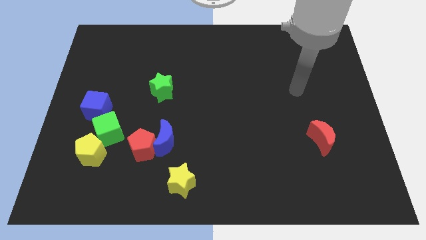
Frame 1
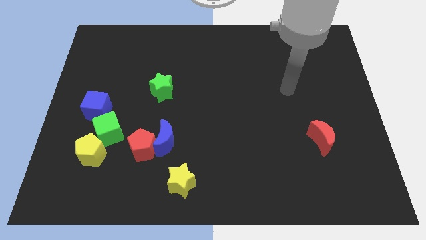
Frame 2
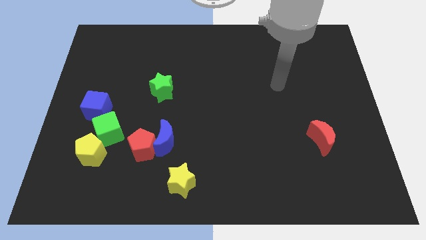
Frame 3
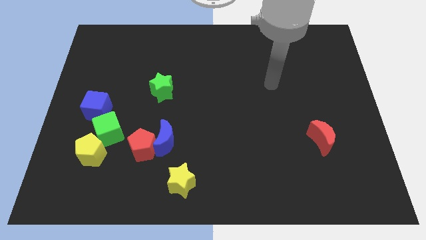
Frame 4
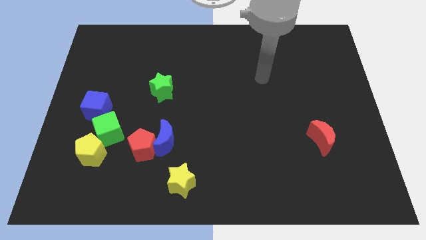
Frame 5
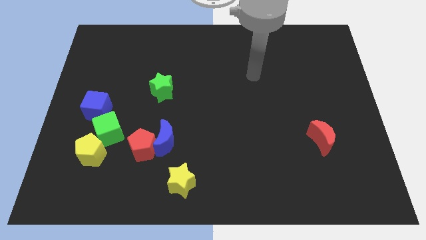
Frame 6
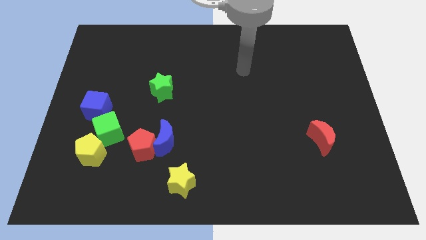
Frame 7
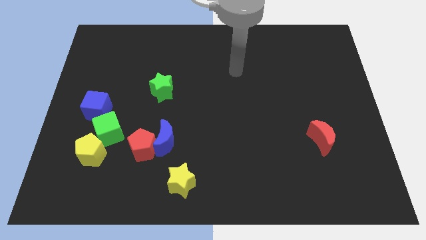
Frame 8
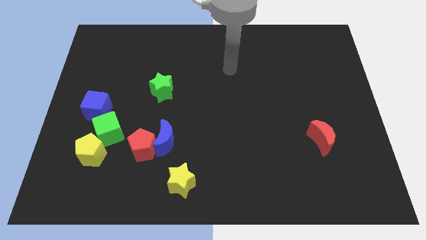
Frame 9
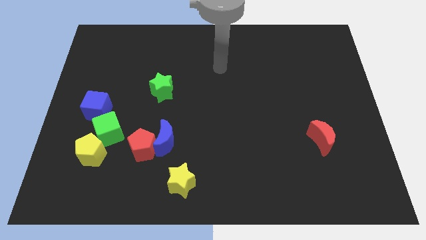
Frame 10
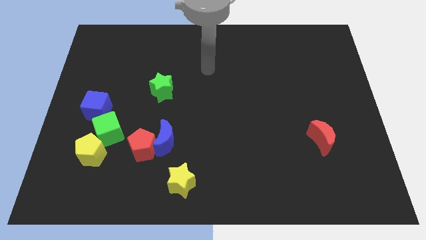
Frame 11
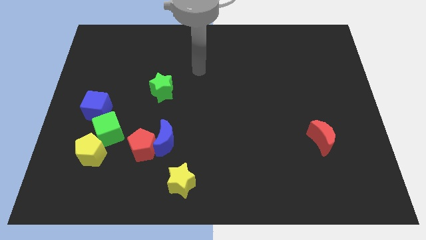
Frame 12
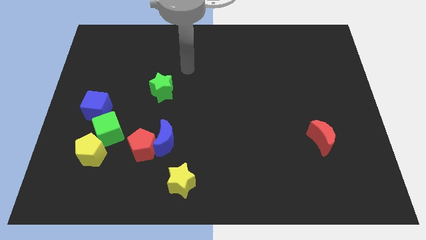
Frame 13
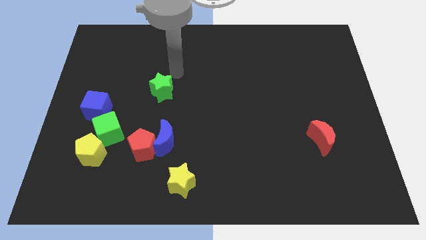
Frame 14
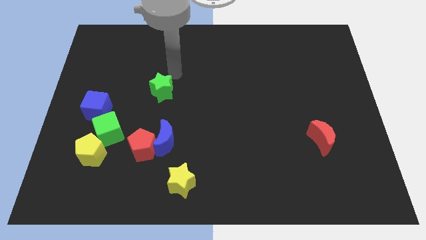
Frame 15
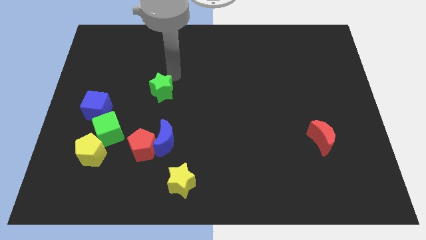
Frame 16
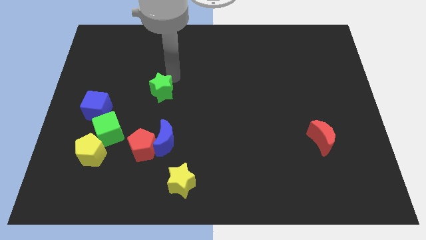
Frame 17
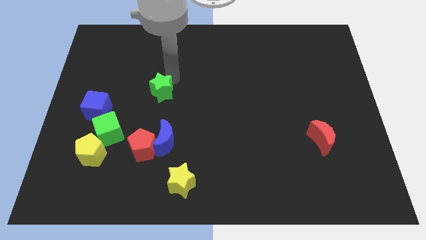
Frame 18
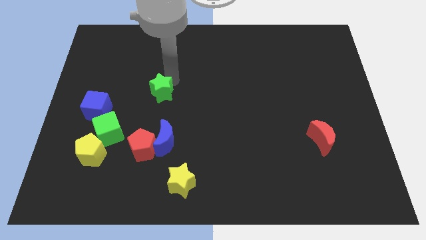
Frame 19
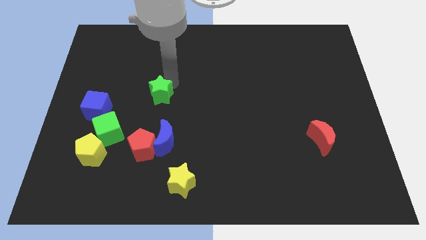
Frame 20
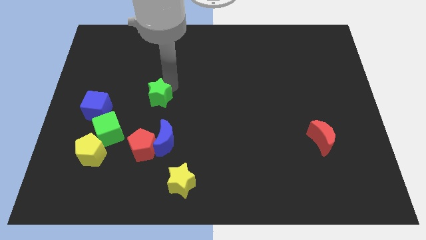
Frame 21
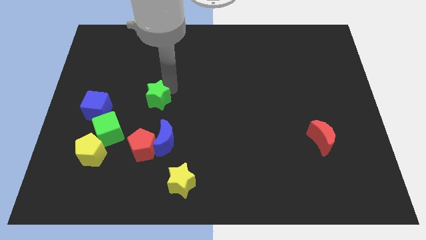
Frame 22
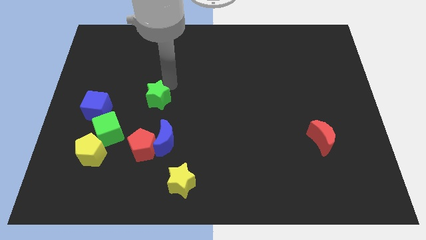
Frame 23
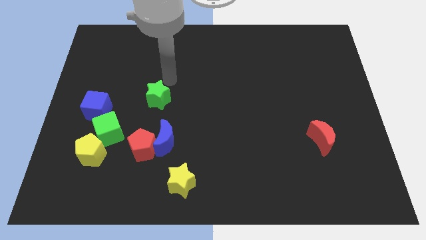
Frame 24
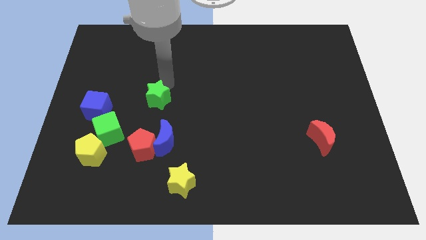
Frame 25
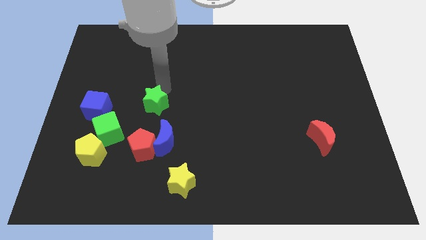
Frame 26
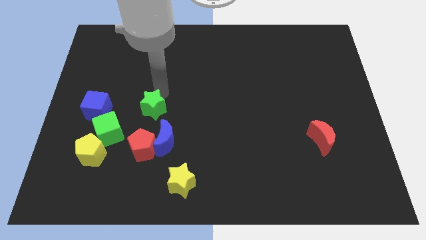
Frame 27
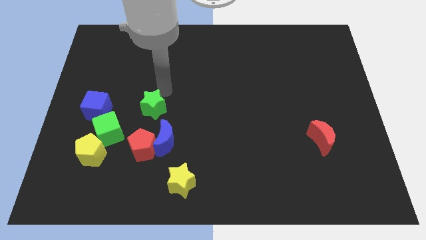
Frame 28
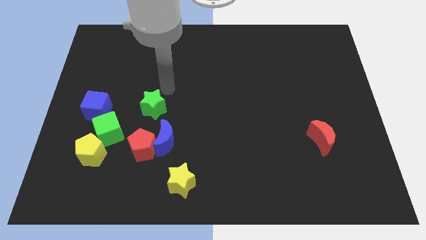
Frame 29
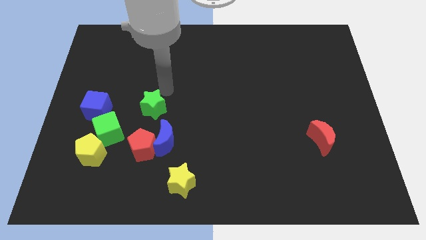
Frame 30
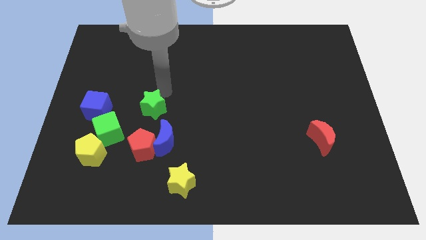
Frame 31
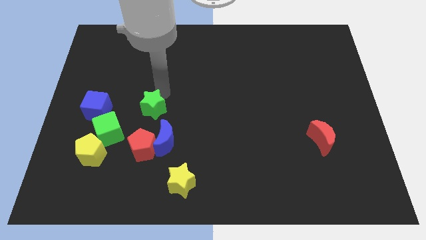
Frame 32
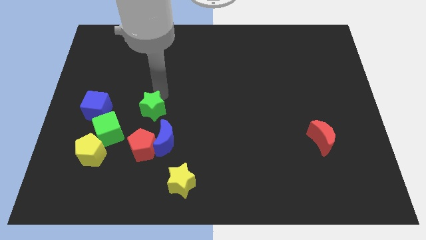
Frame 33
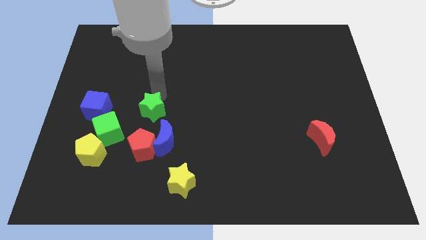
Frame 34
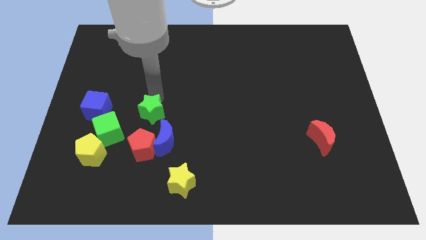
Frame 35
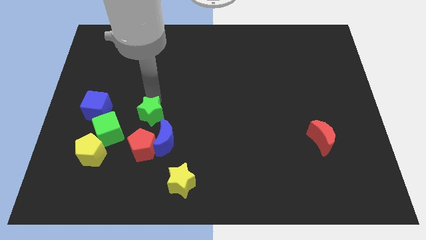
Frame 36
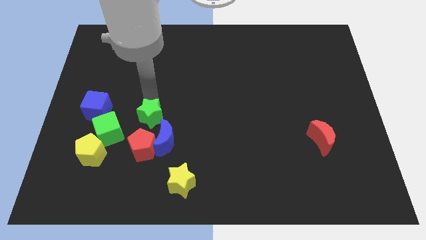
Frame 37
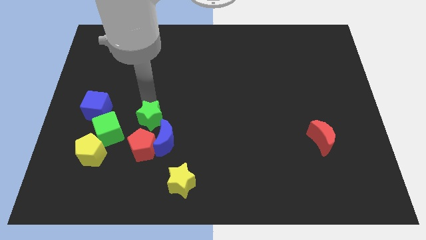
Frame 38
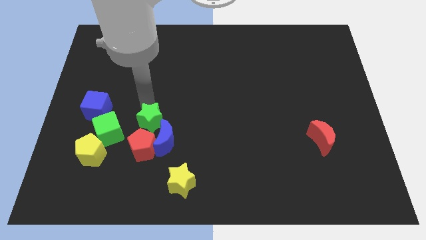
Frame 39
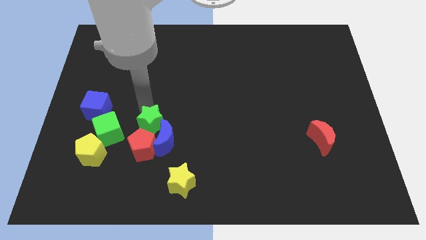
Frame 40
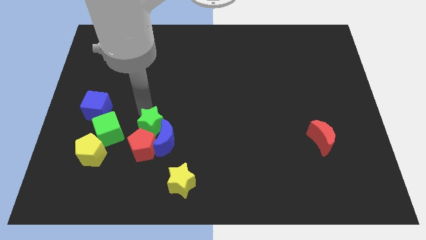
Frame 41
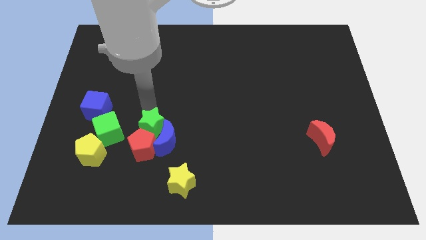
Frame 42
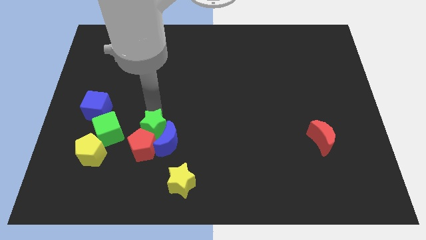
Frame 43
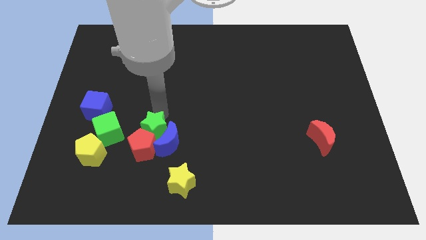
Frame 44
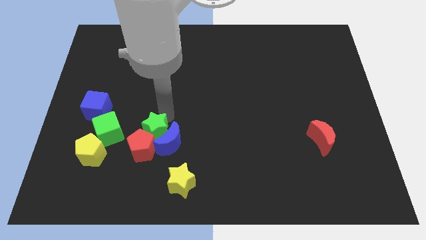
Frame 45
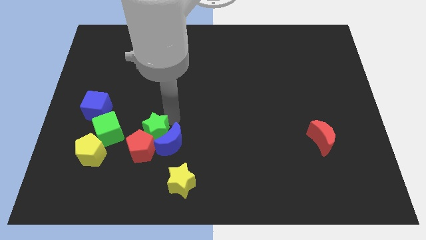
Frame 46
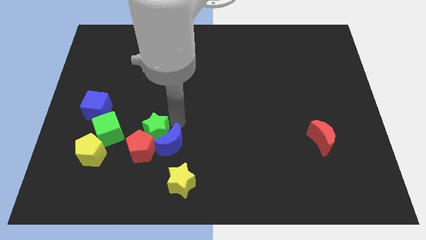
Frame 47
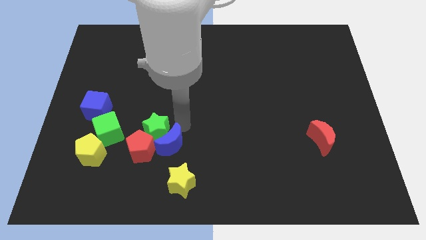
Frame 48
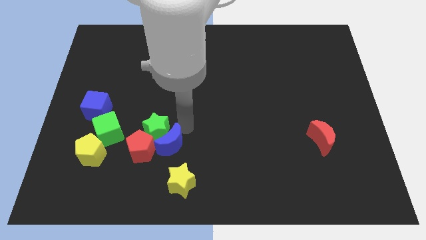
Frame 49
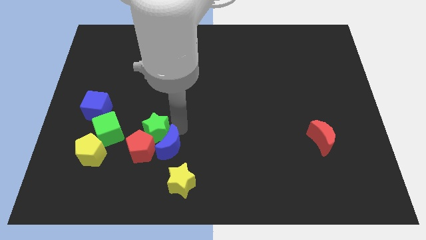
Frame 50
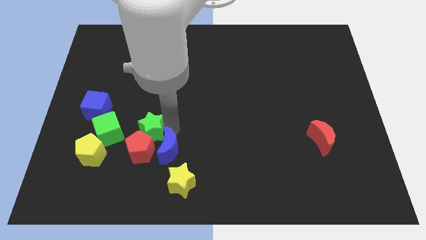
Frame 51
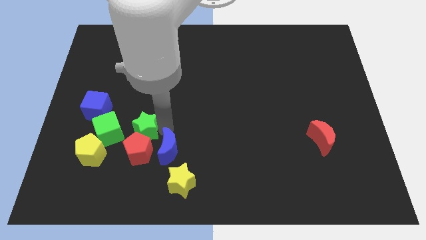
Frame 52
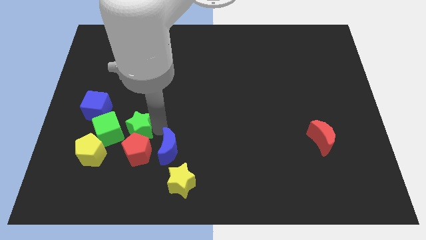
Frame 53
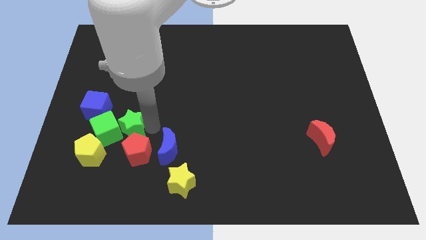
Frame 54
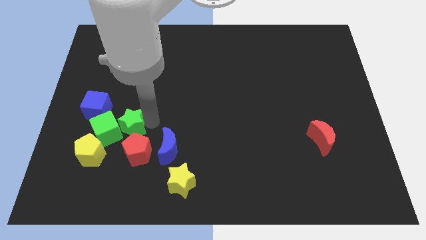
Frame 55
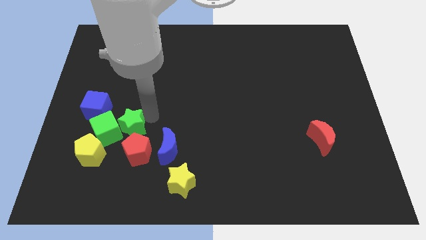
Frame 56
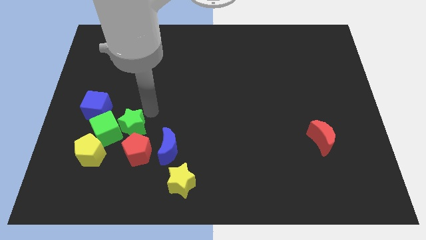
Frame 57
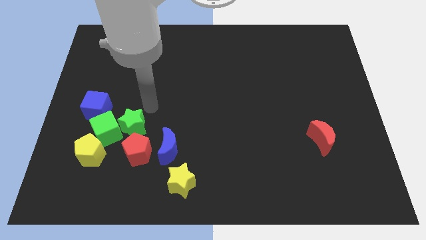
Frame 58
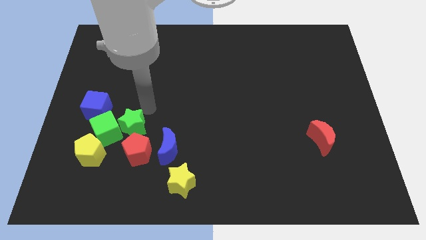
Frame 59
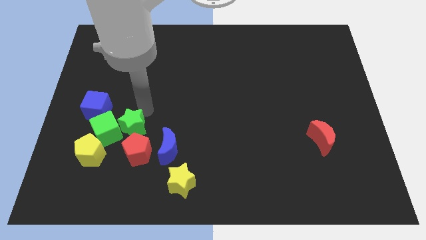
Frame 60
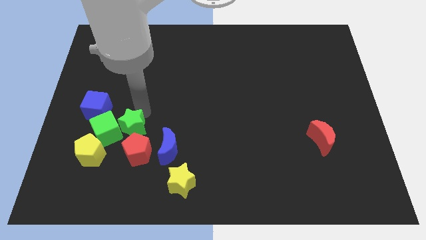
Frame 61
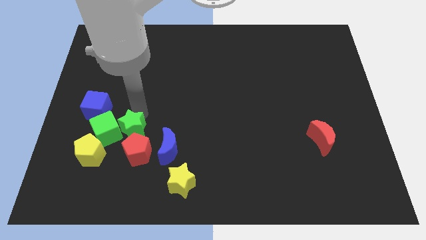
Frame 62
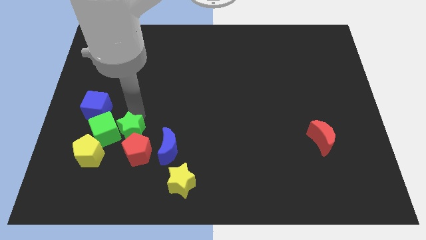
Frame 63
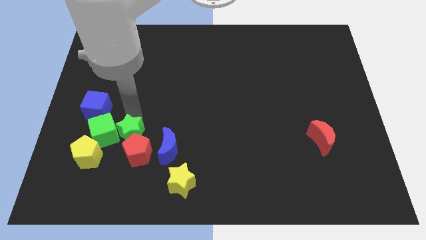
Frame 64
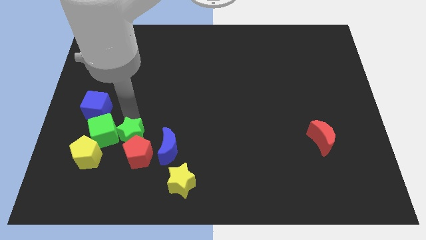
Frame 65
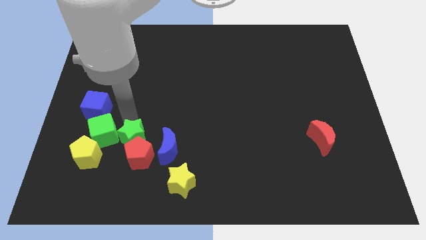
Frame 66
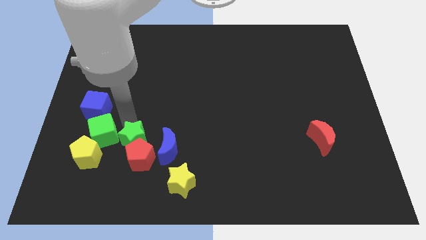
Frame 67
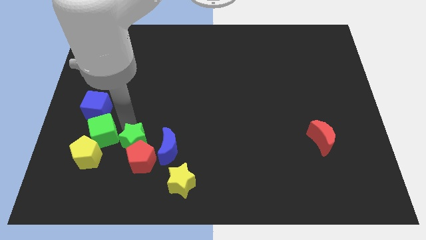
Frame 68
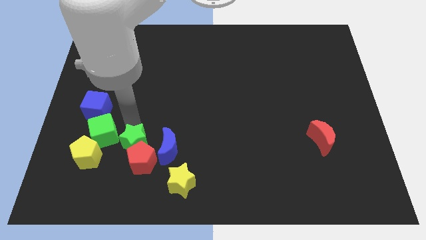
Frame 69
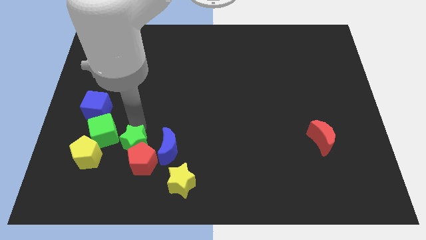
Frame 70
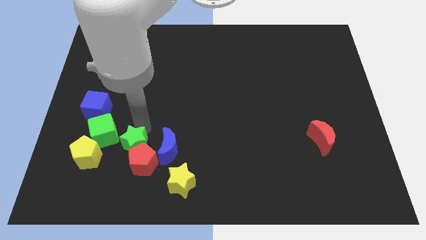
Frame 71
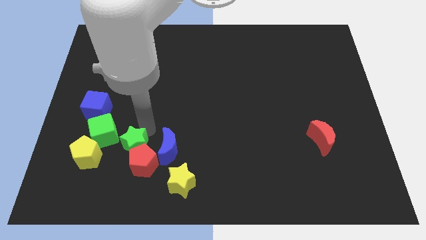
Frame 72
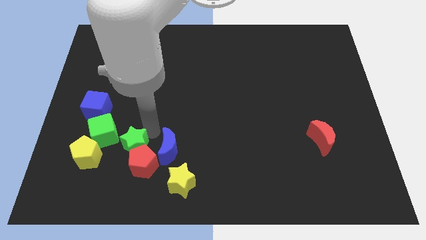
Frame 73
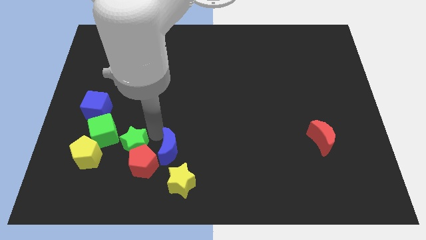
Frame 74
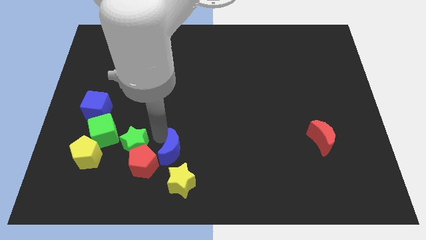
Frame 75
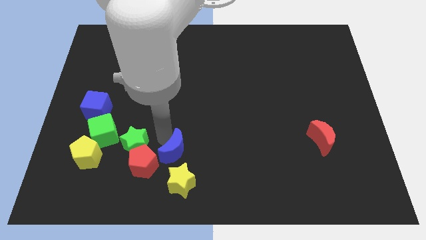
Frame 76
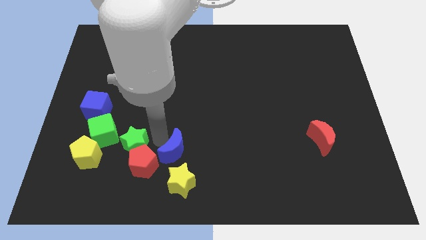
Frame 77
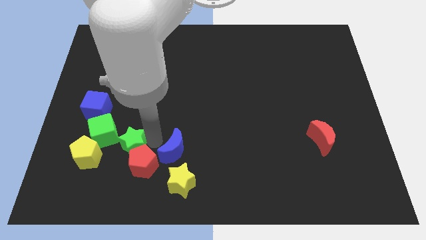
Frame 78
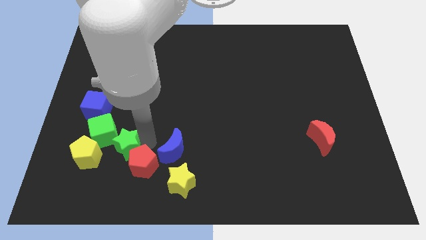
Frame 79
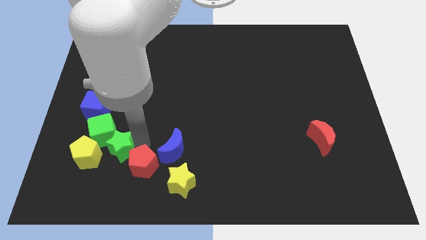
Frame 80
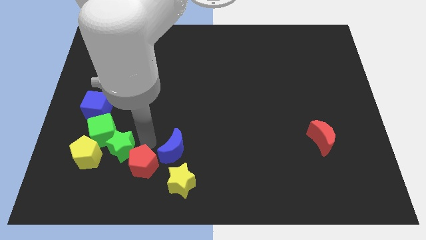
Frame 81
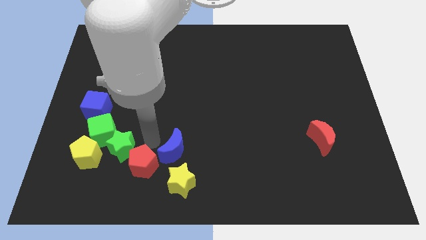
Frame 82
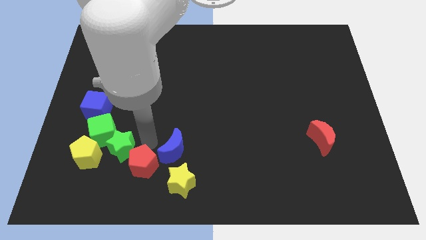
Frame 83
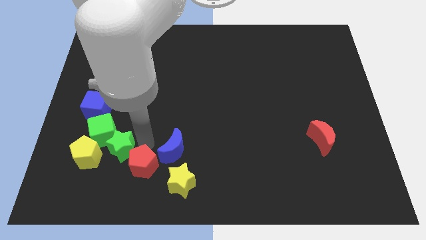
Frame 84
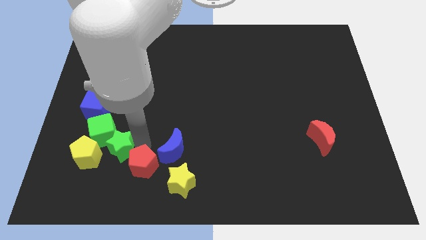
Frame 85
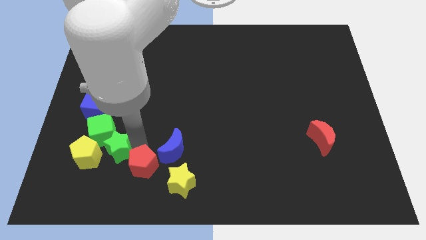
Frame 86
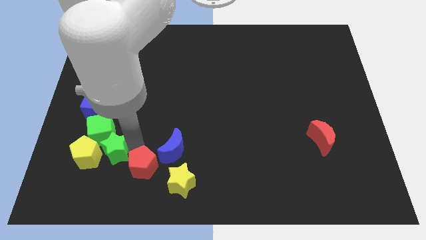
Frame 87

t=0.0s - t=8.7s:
put the green star towards the yellow pentagon
